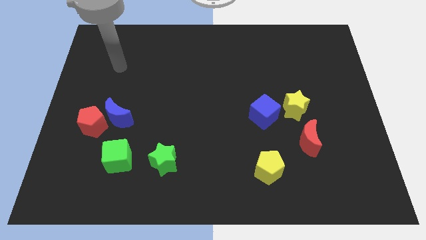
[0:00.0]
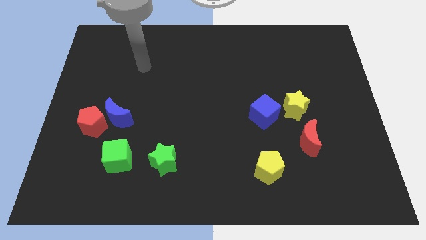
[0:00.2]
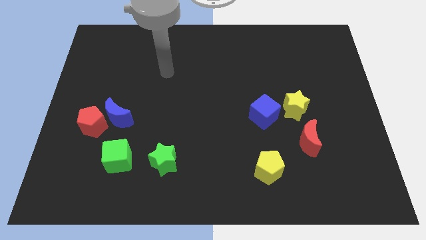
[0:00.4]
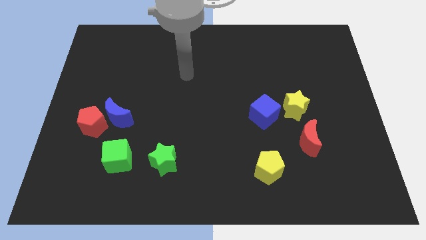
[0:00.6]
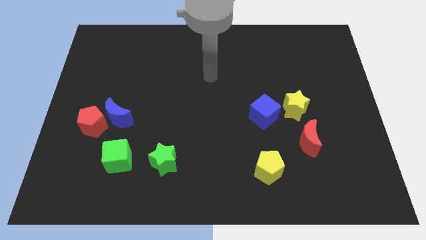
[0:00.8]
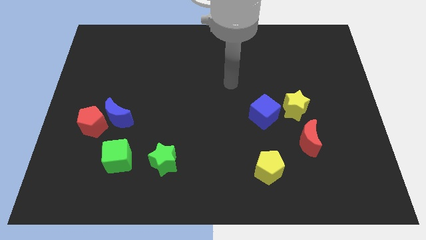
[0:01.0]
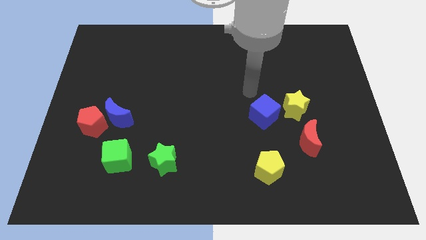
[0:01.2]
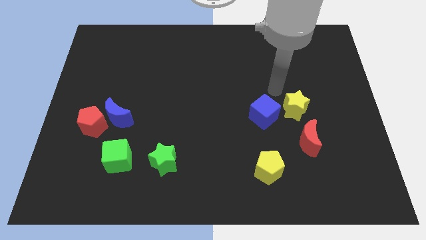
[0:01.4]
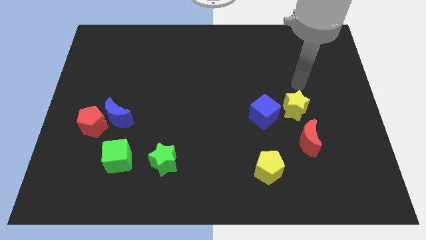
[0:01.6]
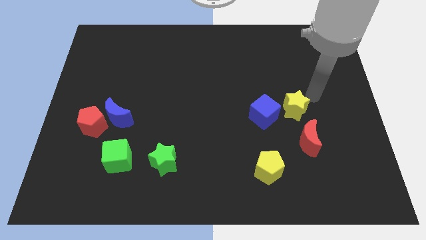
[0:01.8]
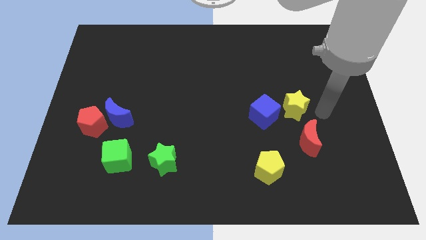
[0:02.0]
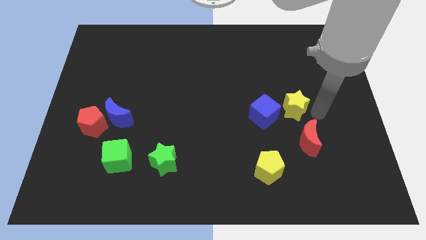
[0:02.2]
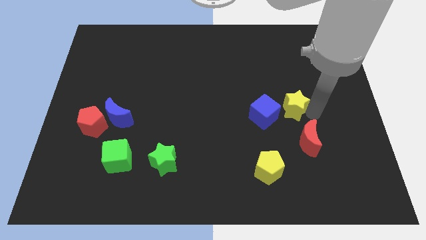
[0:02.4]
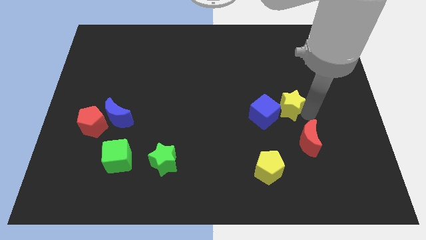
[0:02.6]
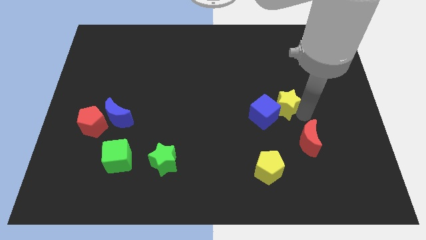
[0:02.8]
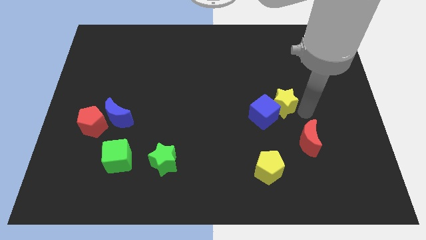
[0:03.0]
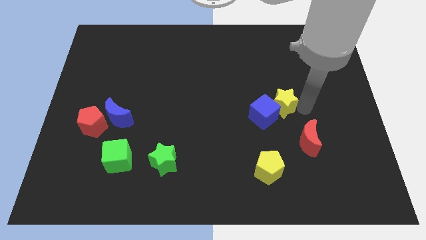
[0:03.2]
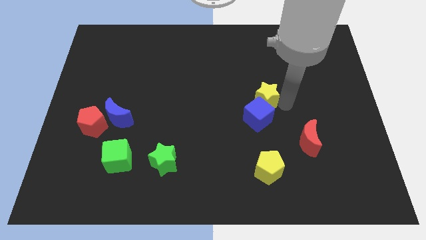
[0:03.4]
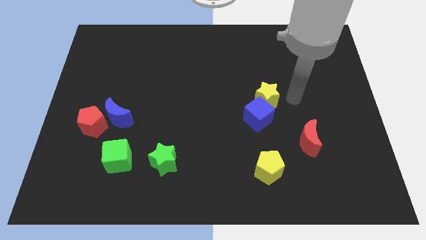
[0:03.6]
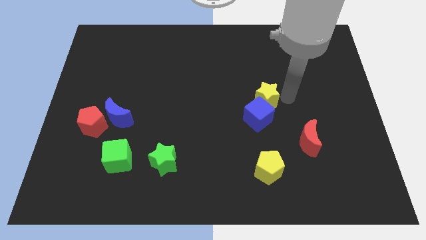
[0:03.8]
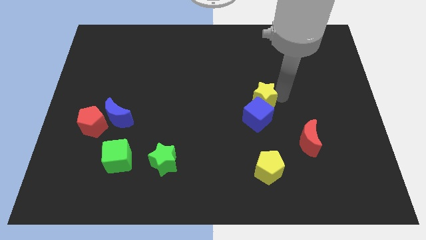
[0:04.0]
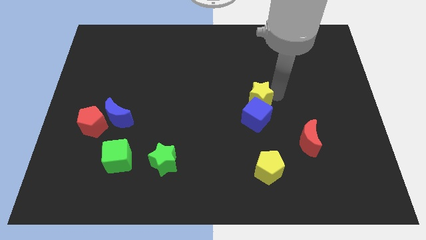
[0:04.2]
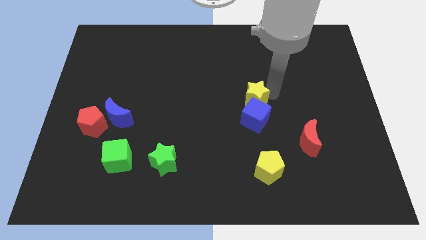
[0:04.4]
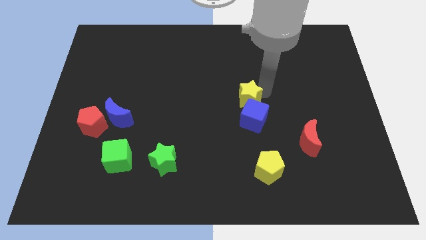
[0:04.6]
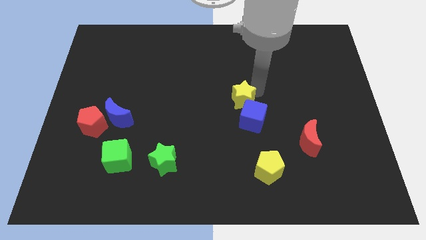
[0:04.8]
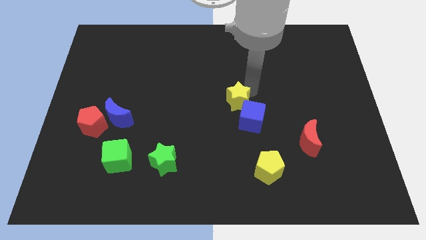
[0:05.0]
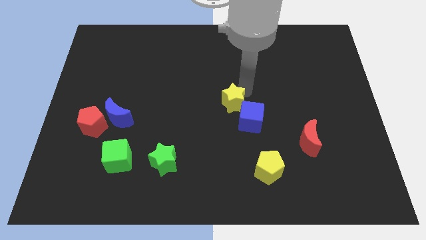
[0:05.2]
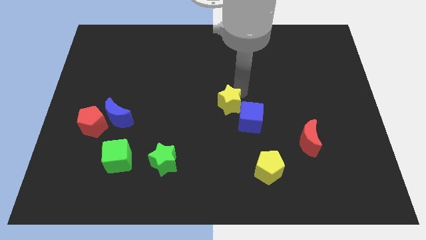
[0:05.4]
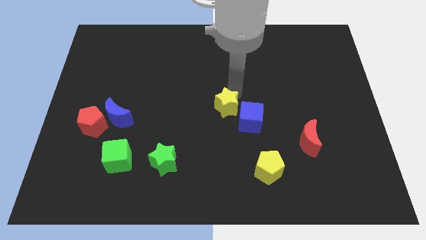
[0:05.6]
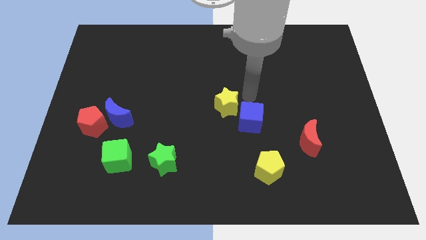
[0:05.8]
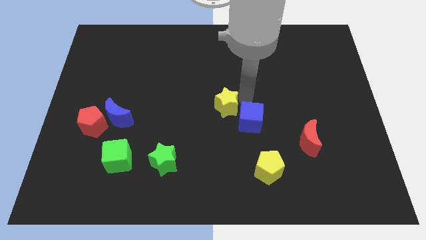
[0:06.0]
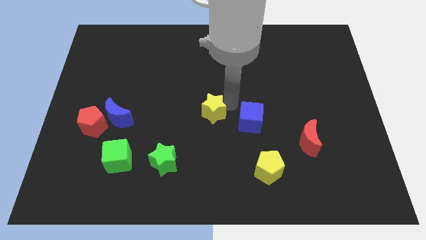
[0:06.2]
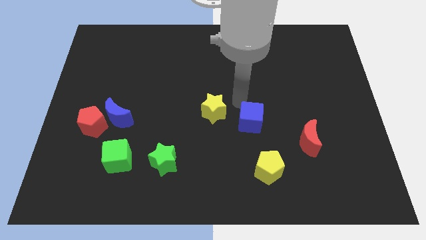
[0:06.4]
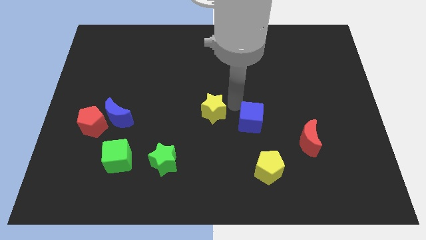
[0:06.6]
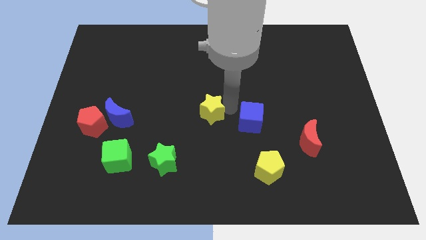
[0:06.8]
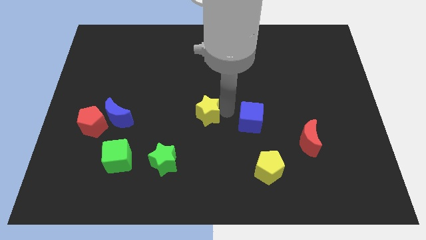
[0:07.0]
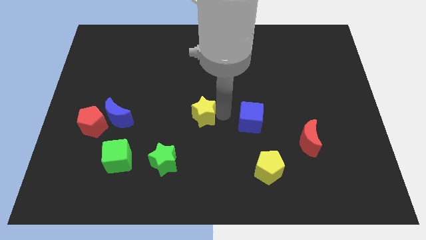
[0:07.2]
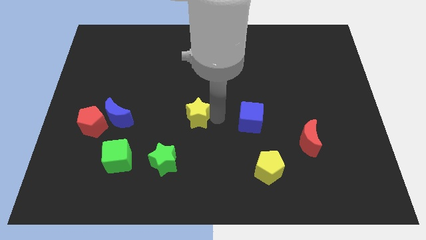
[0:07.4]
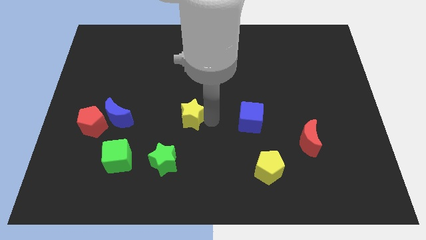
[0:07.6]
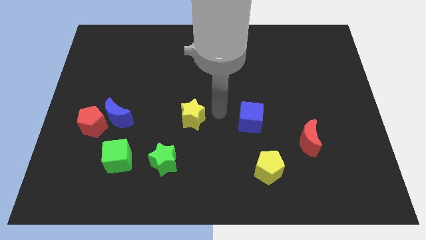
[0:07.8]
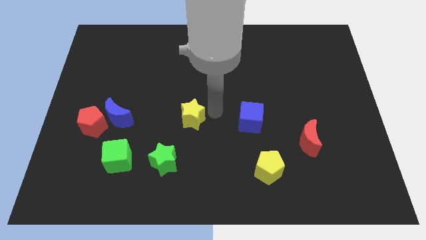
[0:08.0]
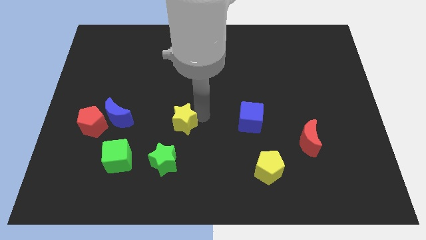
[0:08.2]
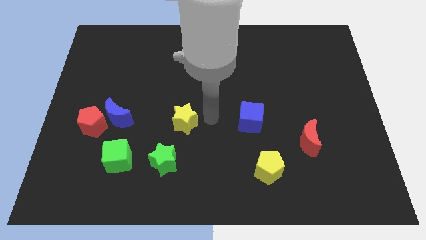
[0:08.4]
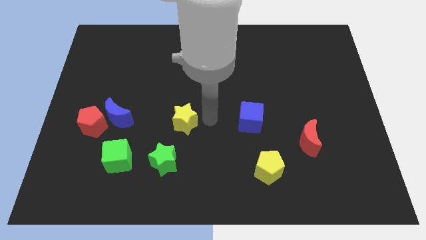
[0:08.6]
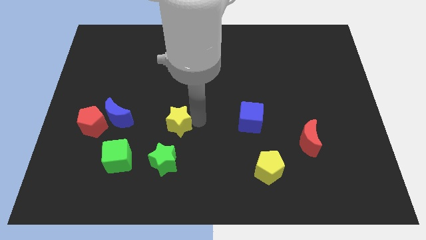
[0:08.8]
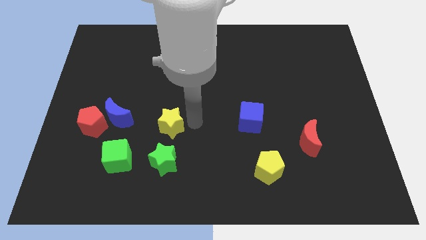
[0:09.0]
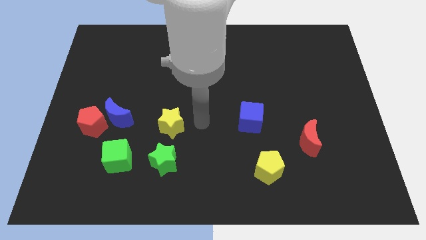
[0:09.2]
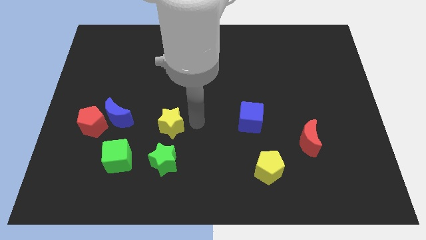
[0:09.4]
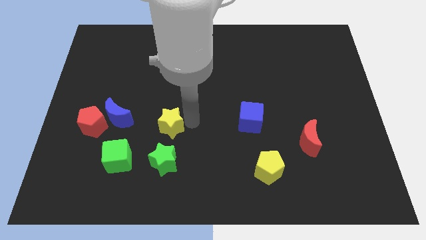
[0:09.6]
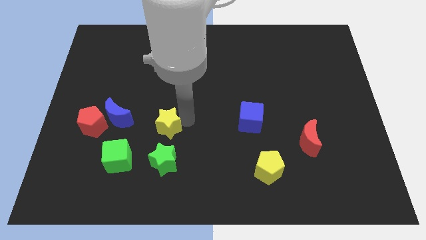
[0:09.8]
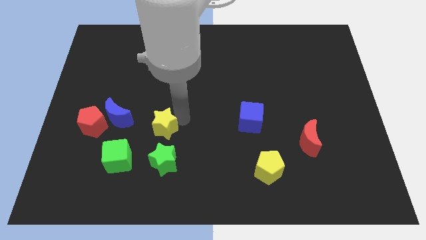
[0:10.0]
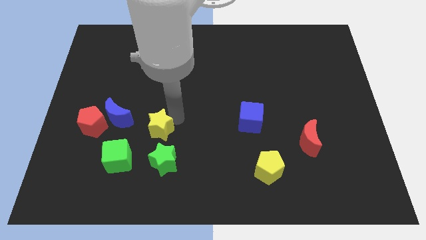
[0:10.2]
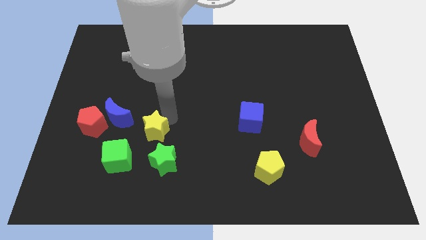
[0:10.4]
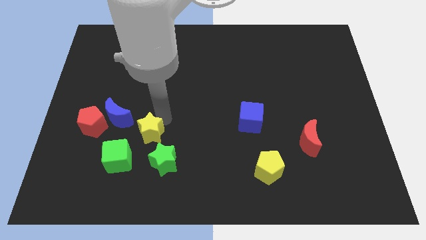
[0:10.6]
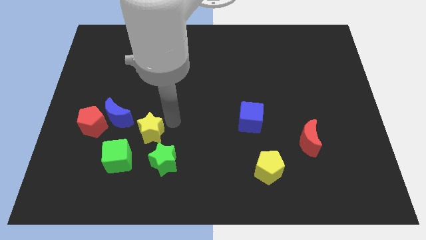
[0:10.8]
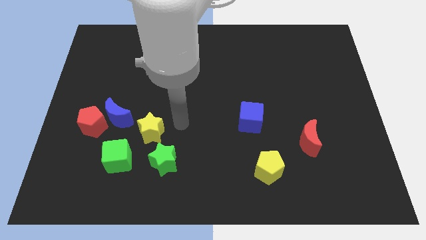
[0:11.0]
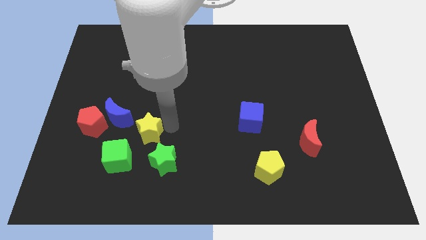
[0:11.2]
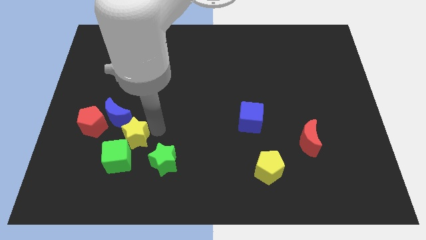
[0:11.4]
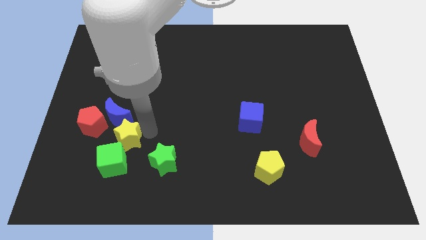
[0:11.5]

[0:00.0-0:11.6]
slide the yellow star to the bottom right side of the red pentagon

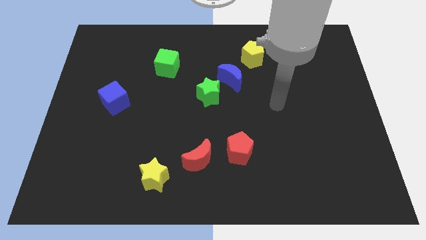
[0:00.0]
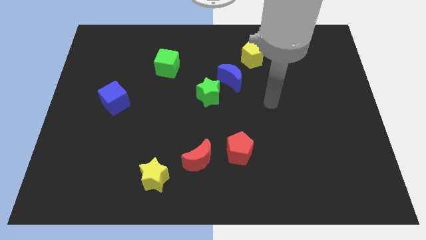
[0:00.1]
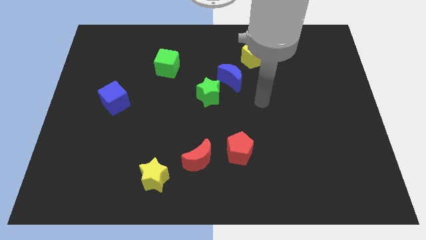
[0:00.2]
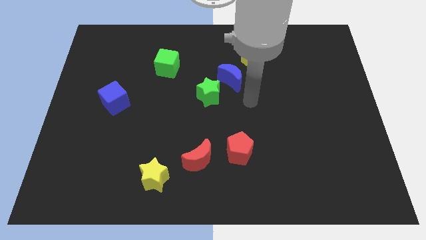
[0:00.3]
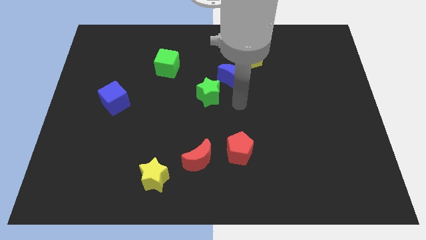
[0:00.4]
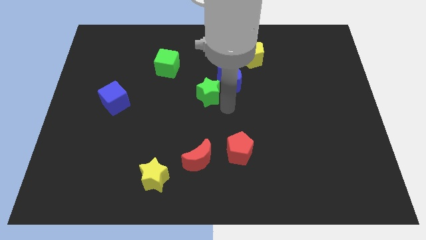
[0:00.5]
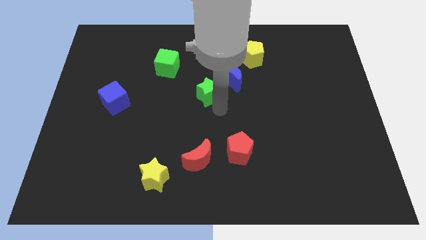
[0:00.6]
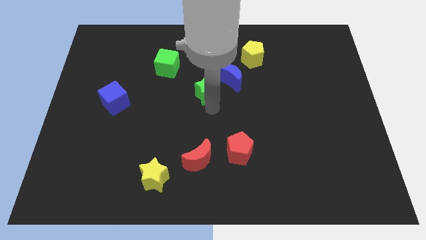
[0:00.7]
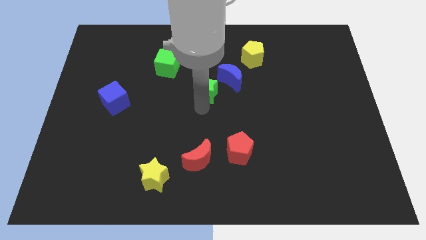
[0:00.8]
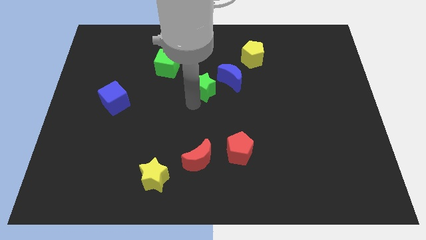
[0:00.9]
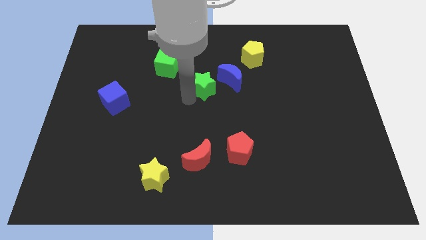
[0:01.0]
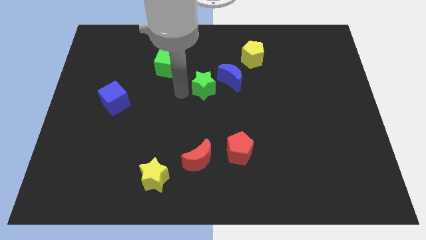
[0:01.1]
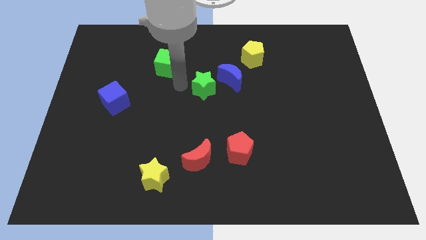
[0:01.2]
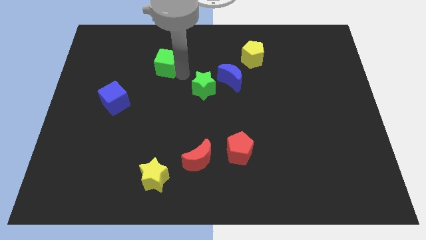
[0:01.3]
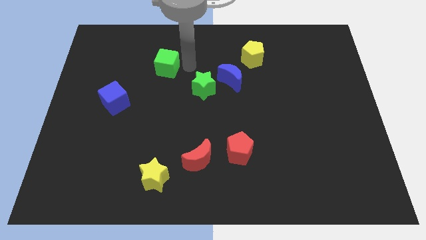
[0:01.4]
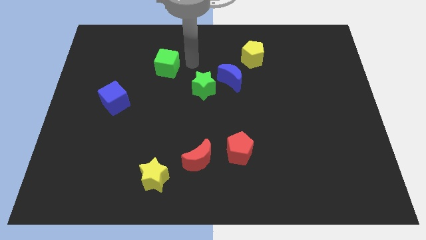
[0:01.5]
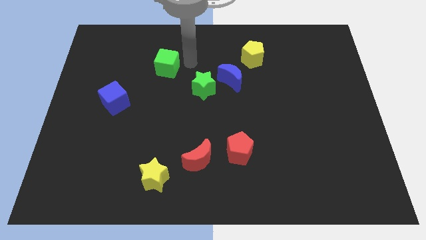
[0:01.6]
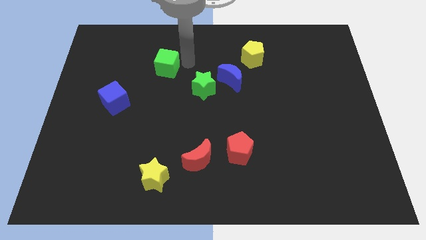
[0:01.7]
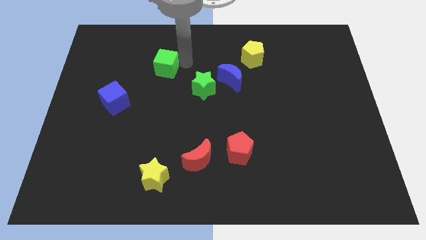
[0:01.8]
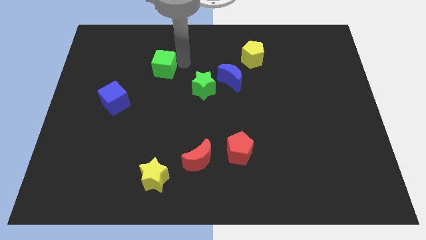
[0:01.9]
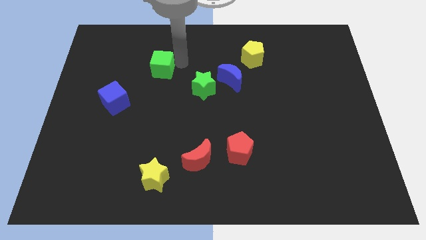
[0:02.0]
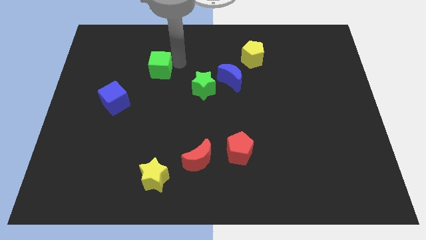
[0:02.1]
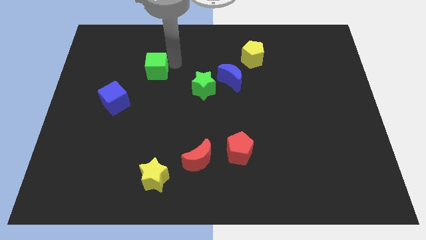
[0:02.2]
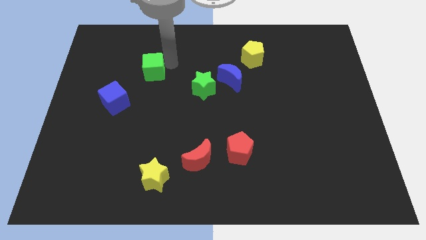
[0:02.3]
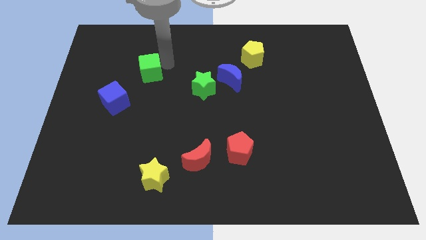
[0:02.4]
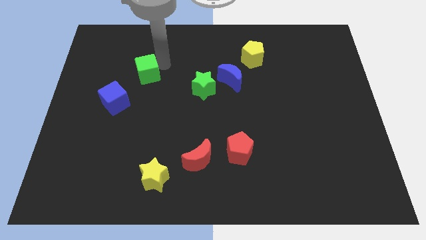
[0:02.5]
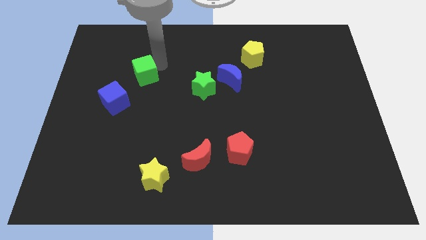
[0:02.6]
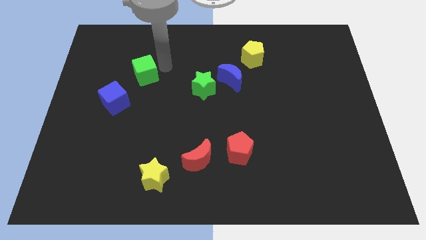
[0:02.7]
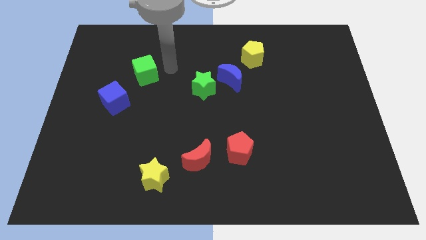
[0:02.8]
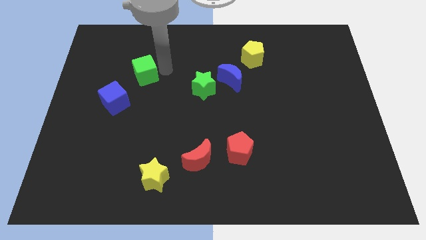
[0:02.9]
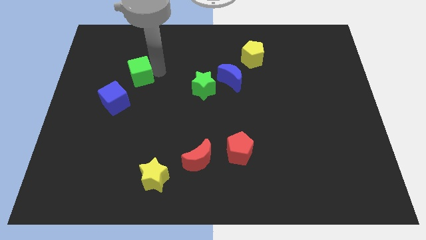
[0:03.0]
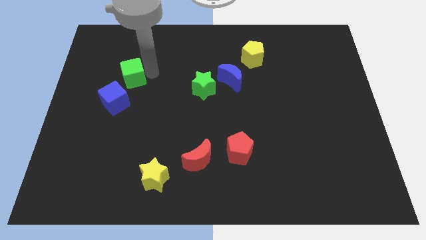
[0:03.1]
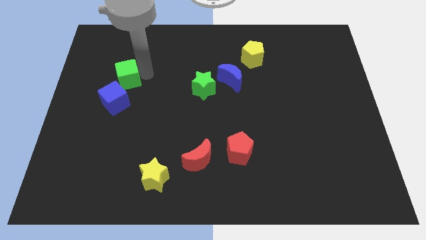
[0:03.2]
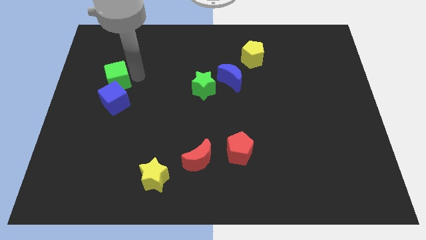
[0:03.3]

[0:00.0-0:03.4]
move the green cube to the top left side of the blue cube
